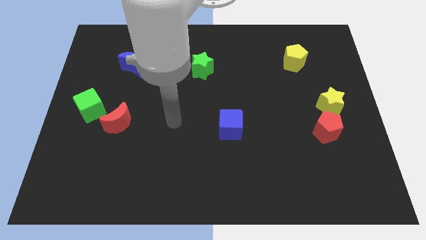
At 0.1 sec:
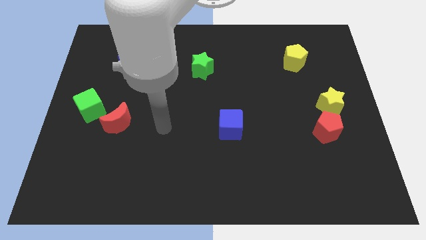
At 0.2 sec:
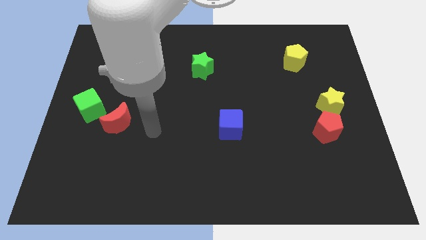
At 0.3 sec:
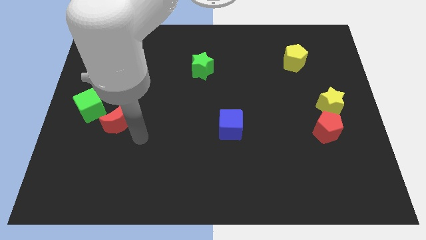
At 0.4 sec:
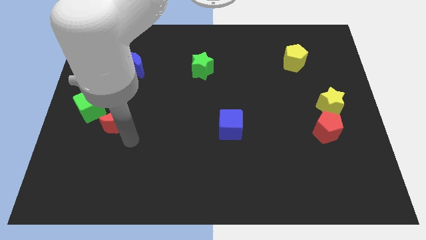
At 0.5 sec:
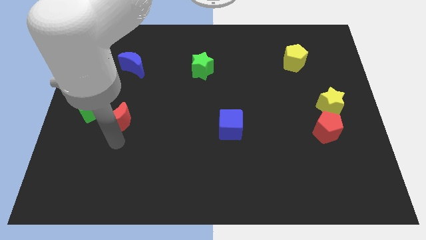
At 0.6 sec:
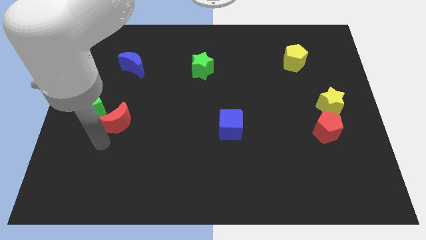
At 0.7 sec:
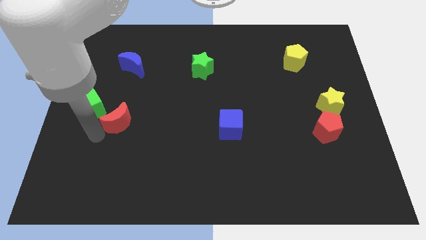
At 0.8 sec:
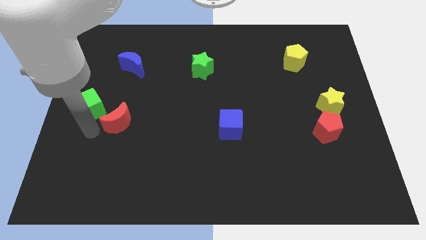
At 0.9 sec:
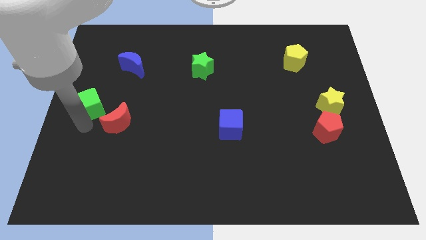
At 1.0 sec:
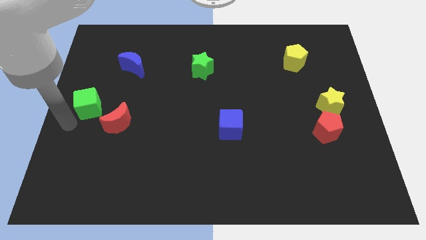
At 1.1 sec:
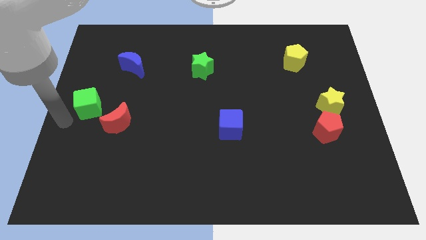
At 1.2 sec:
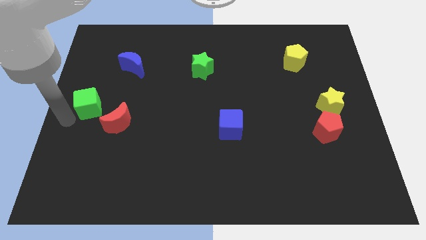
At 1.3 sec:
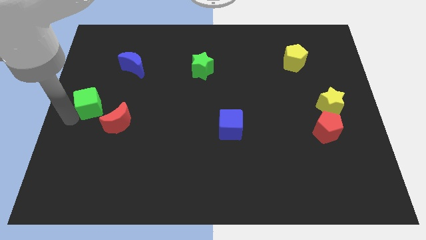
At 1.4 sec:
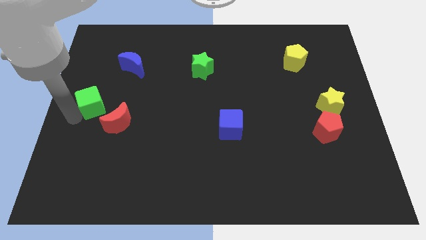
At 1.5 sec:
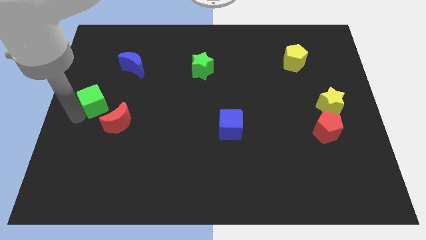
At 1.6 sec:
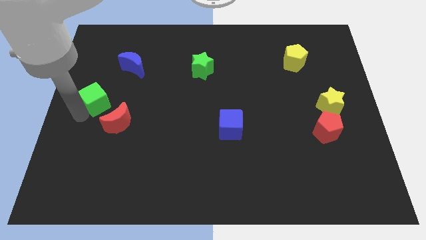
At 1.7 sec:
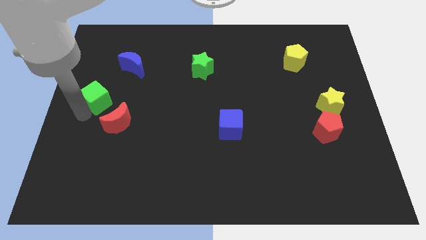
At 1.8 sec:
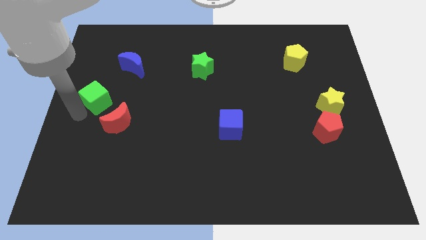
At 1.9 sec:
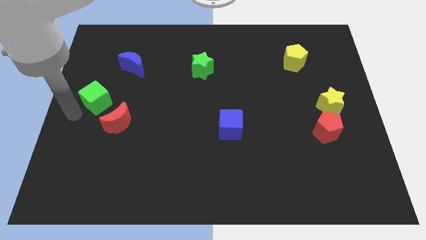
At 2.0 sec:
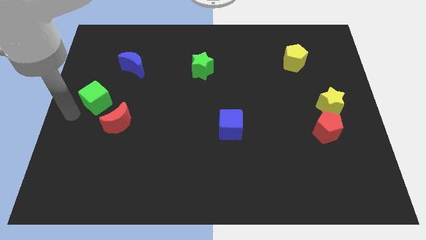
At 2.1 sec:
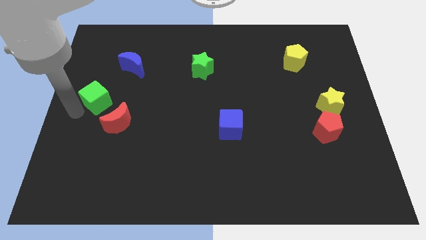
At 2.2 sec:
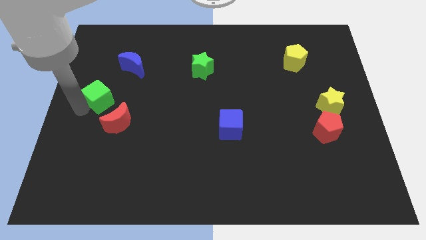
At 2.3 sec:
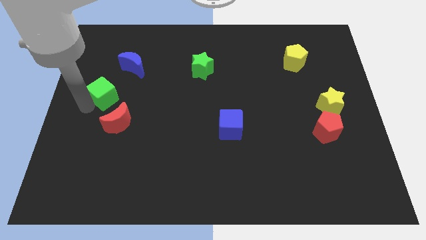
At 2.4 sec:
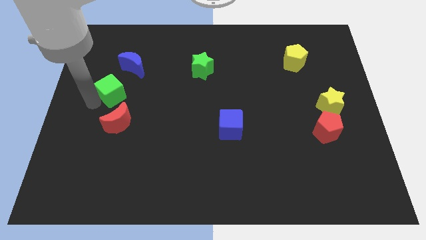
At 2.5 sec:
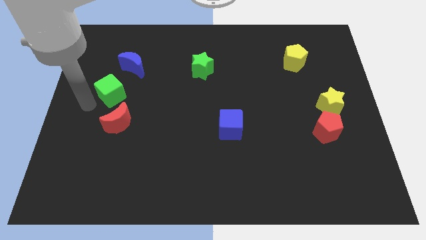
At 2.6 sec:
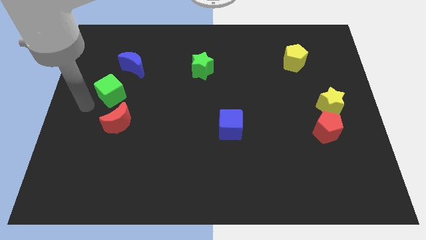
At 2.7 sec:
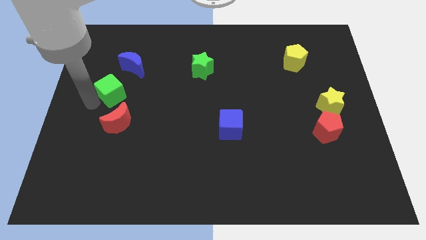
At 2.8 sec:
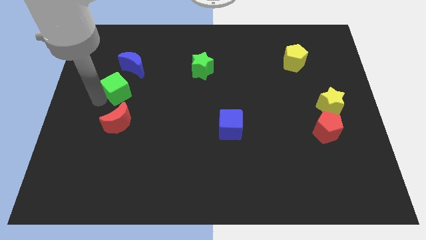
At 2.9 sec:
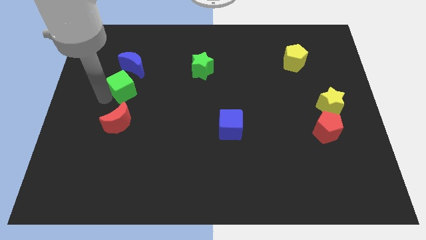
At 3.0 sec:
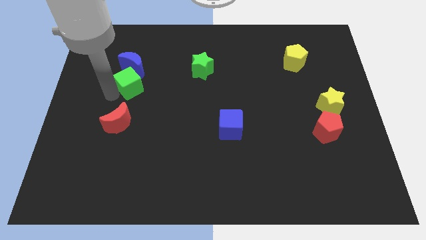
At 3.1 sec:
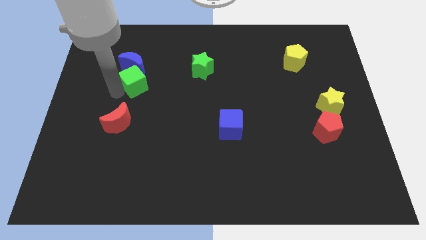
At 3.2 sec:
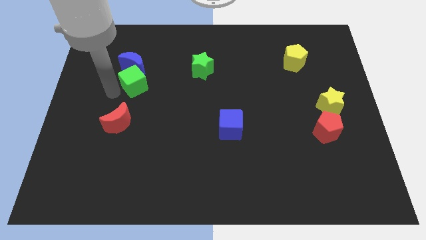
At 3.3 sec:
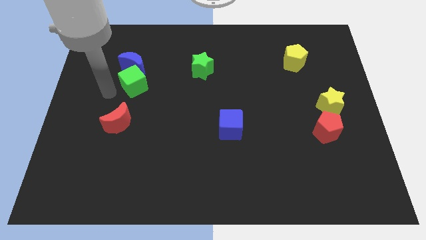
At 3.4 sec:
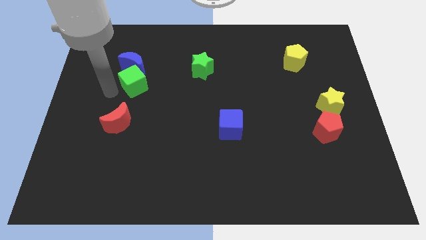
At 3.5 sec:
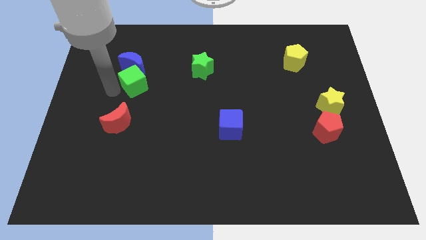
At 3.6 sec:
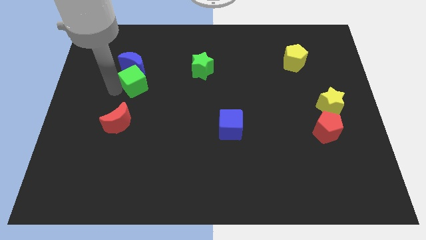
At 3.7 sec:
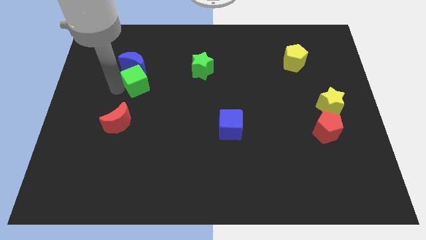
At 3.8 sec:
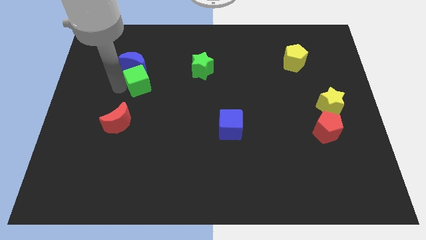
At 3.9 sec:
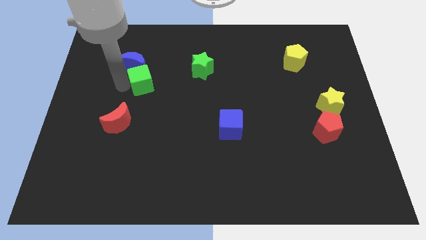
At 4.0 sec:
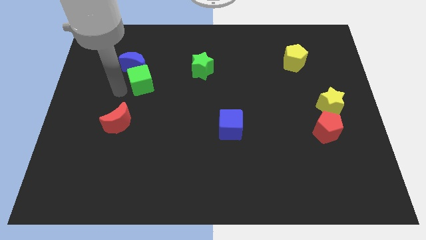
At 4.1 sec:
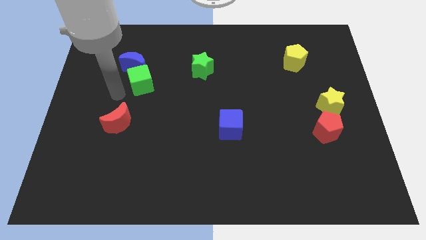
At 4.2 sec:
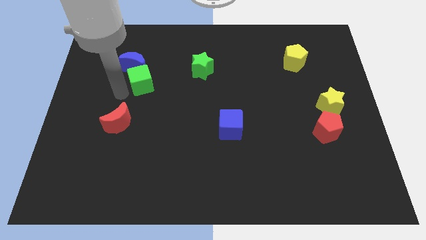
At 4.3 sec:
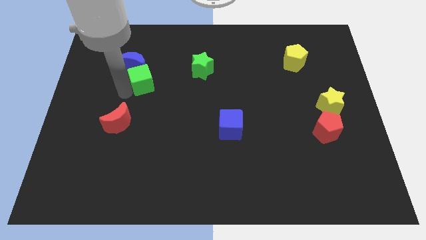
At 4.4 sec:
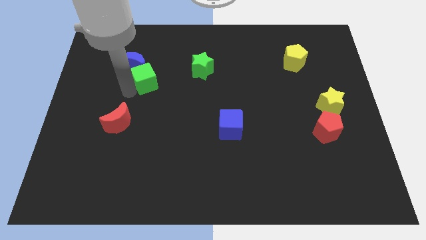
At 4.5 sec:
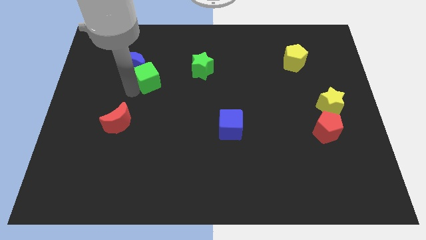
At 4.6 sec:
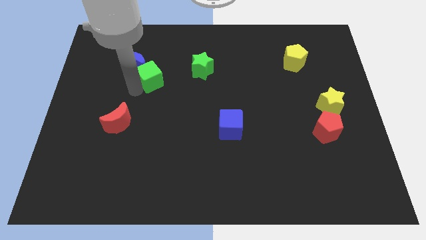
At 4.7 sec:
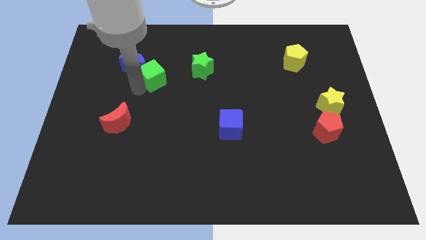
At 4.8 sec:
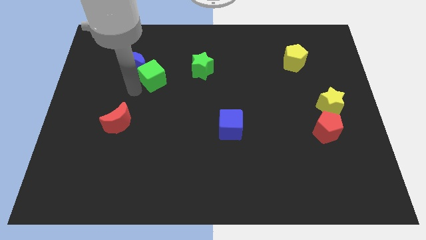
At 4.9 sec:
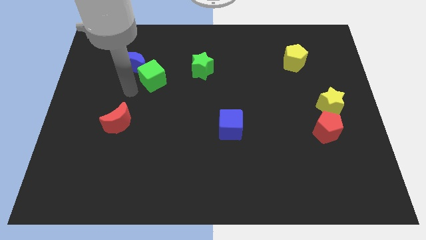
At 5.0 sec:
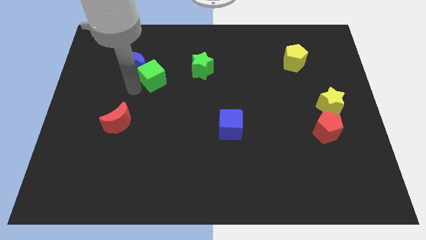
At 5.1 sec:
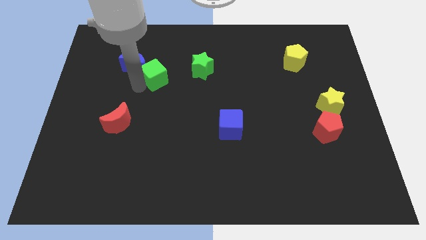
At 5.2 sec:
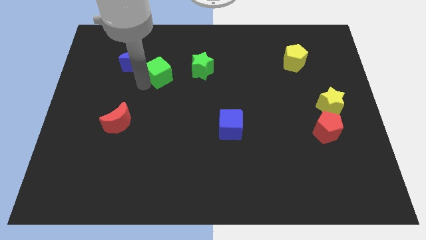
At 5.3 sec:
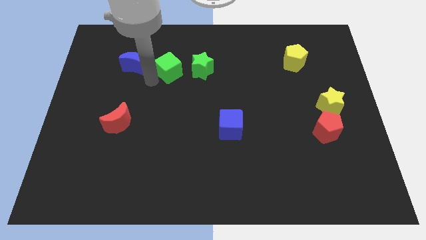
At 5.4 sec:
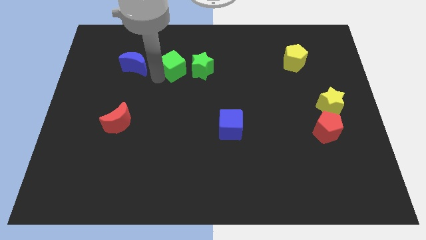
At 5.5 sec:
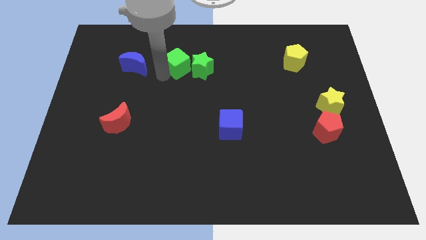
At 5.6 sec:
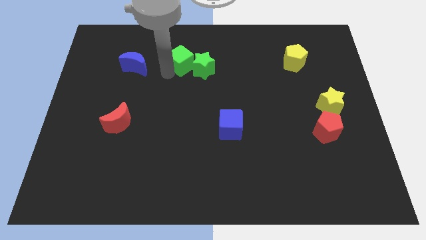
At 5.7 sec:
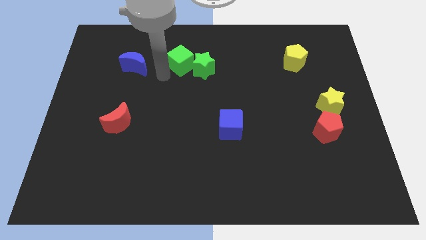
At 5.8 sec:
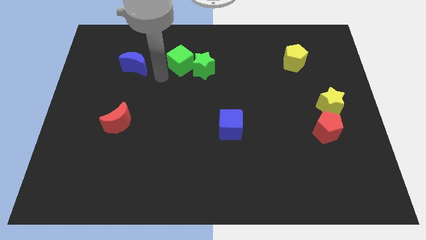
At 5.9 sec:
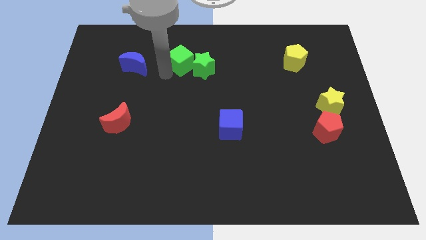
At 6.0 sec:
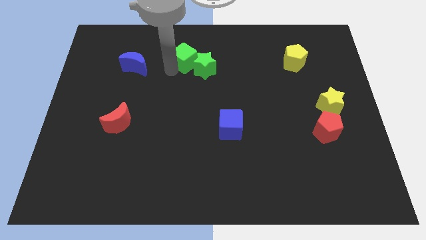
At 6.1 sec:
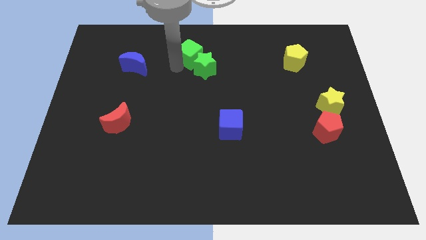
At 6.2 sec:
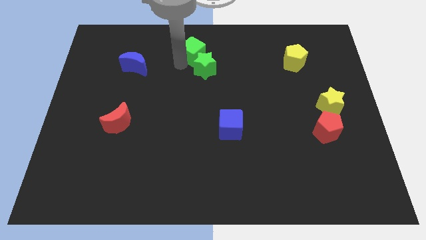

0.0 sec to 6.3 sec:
push the green cube to the top side
